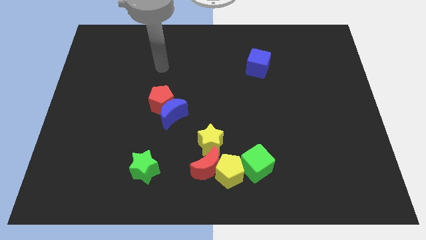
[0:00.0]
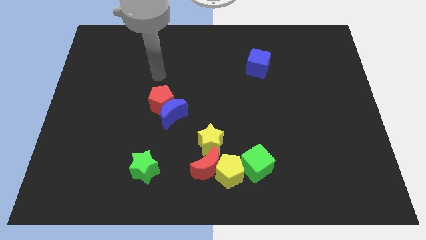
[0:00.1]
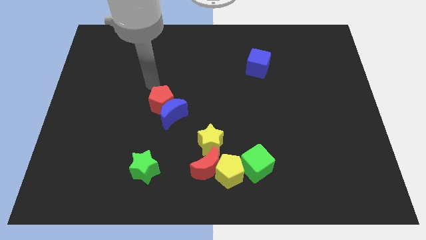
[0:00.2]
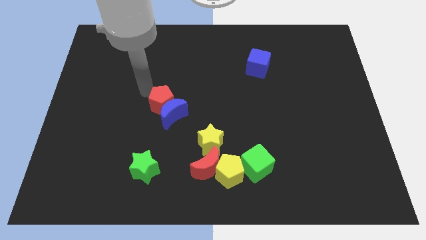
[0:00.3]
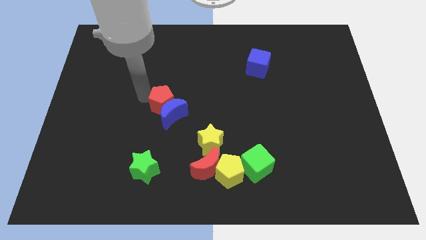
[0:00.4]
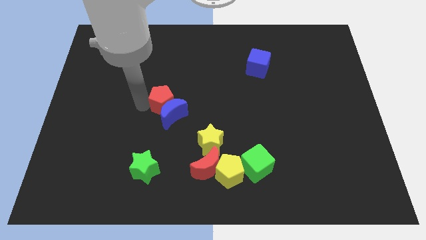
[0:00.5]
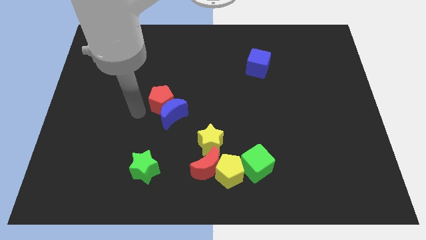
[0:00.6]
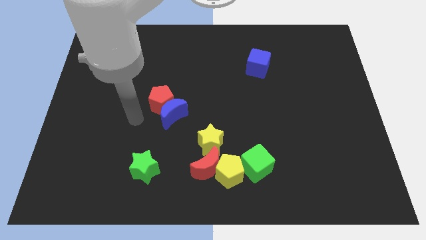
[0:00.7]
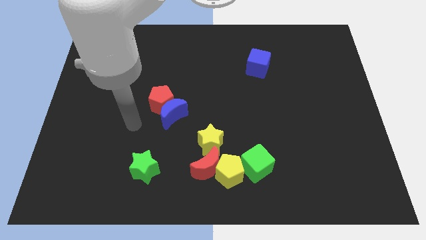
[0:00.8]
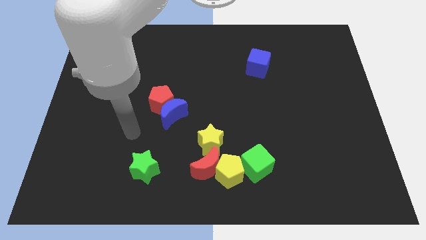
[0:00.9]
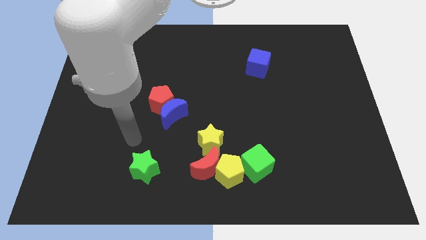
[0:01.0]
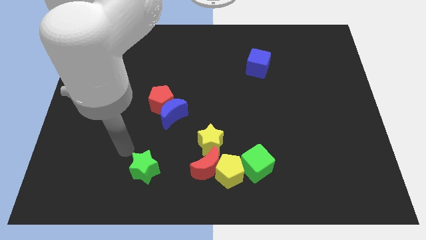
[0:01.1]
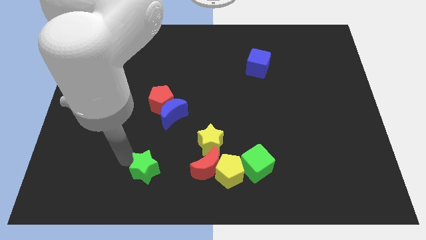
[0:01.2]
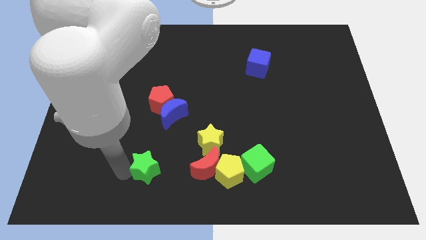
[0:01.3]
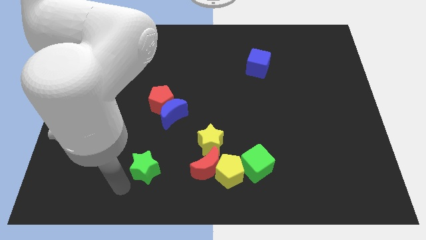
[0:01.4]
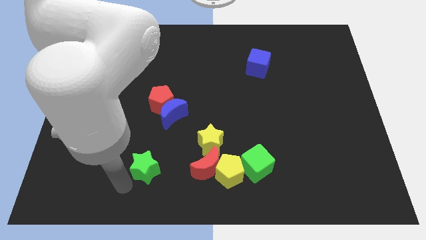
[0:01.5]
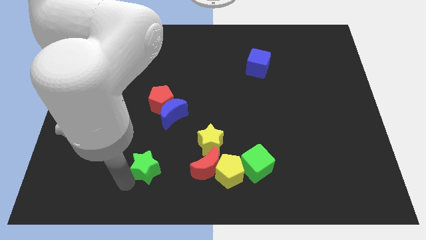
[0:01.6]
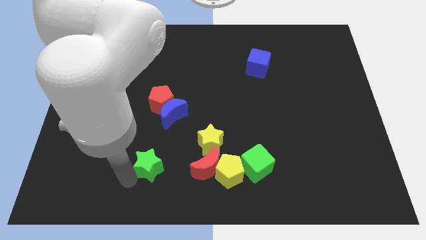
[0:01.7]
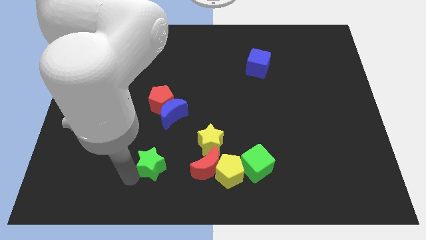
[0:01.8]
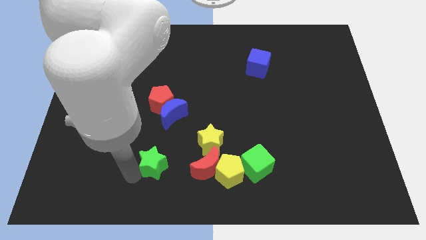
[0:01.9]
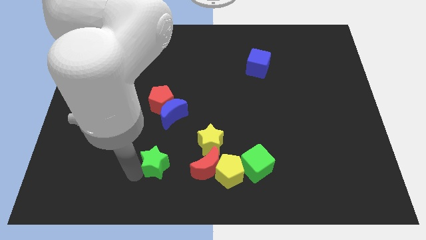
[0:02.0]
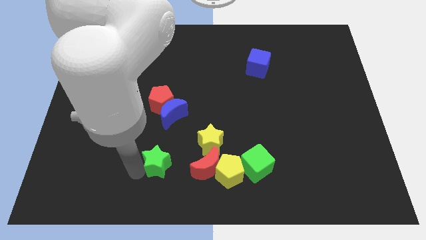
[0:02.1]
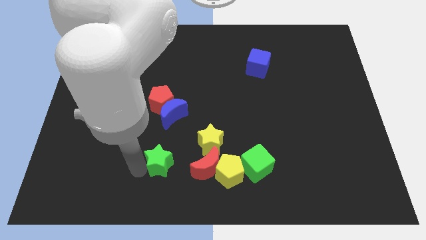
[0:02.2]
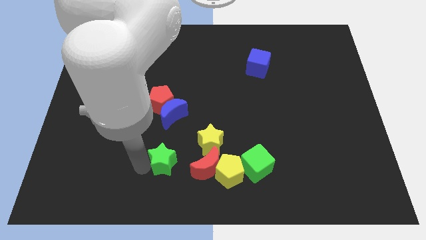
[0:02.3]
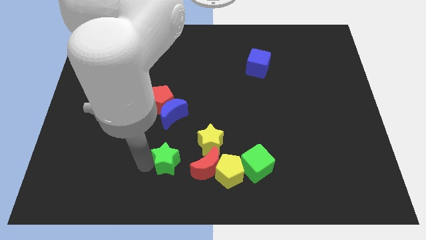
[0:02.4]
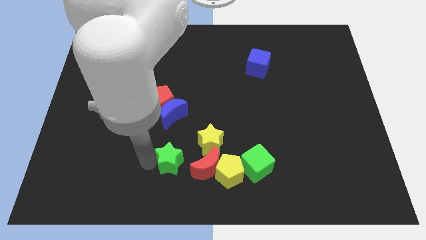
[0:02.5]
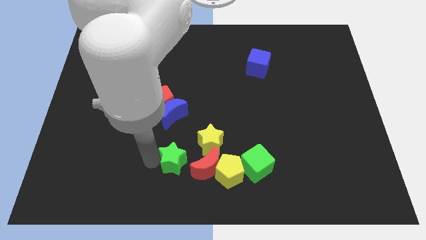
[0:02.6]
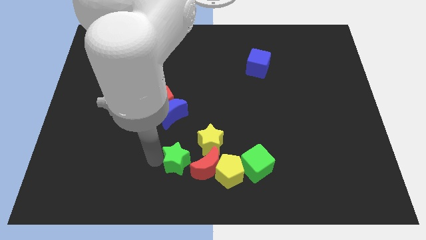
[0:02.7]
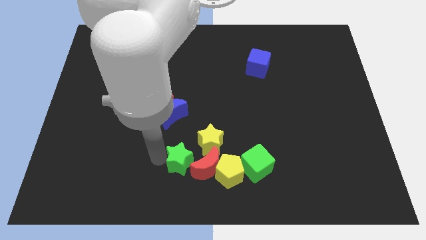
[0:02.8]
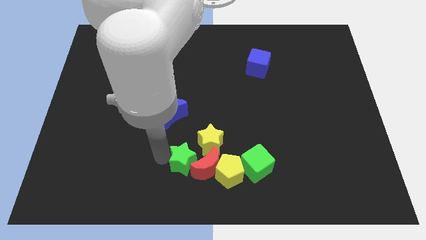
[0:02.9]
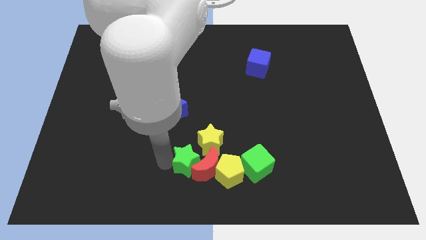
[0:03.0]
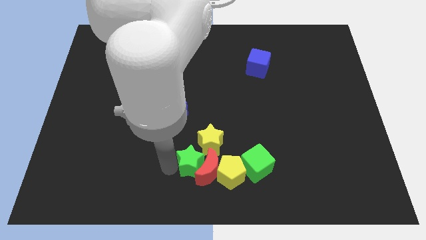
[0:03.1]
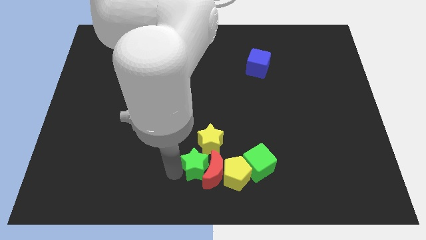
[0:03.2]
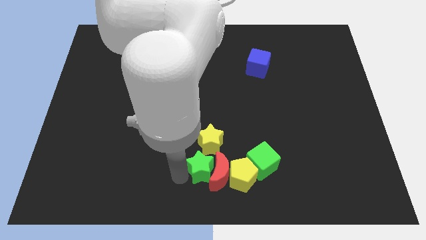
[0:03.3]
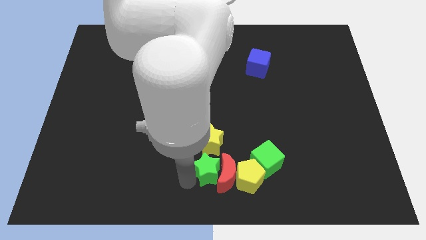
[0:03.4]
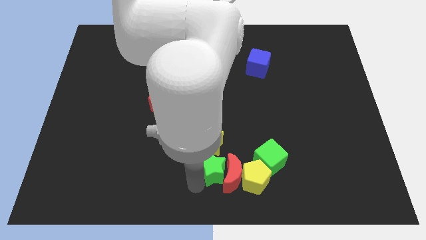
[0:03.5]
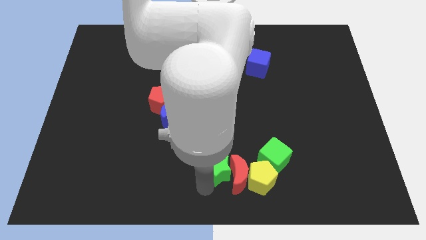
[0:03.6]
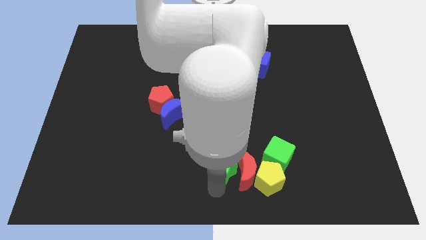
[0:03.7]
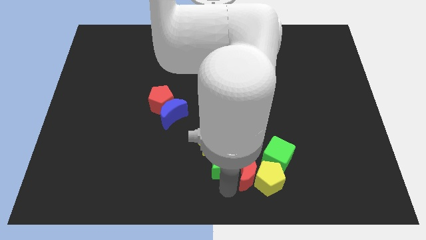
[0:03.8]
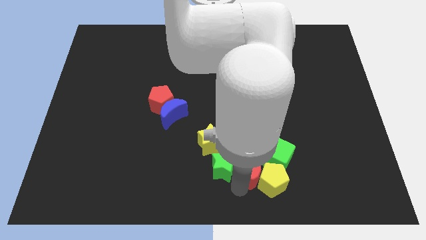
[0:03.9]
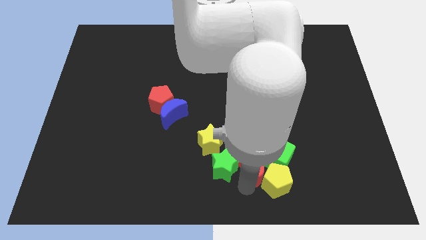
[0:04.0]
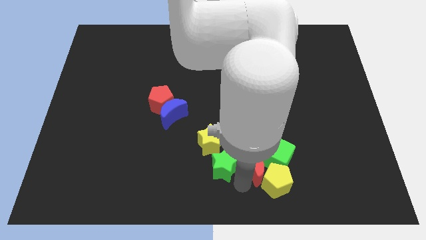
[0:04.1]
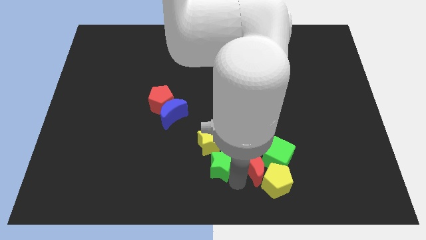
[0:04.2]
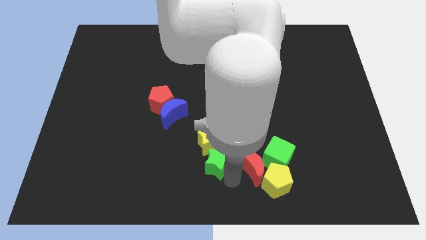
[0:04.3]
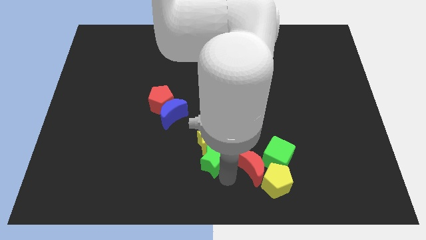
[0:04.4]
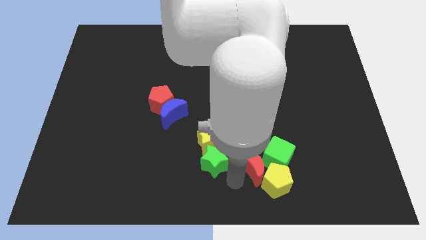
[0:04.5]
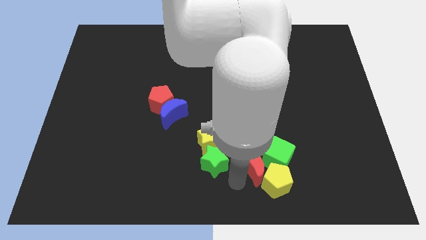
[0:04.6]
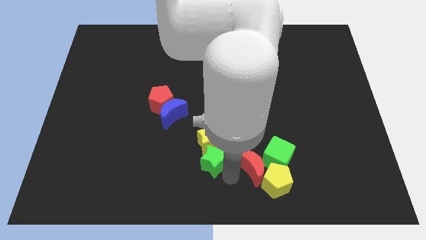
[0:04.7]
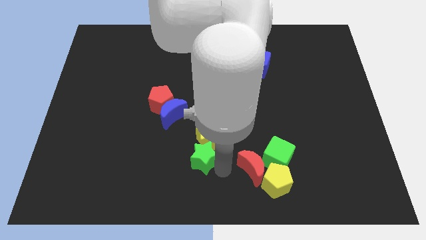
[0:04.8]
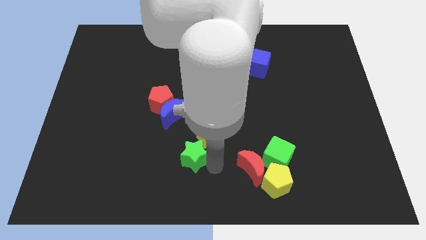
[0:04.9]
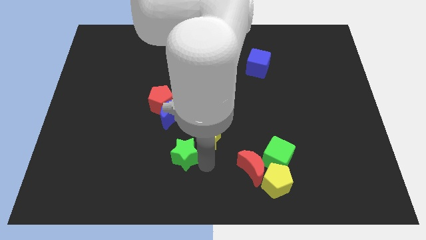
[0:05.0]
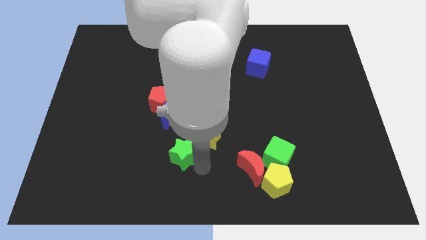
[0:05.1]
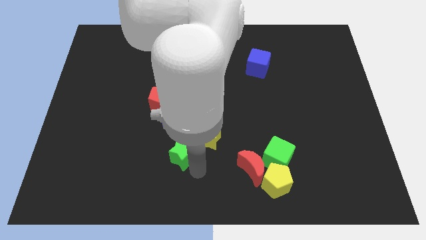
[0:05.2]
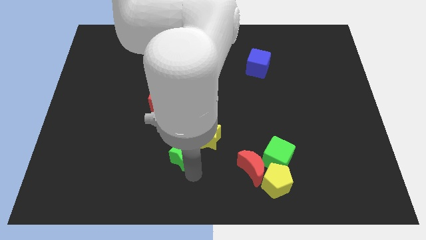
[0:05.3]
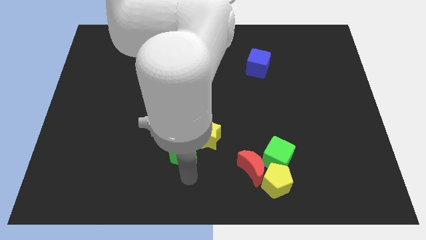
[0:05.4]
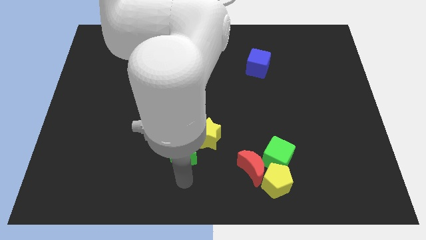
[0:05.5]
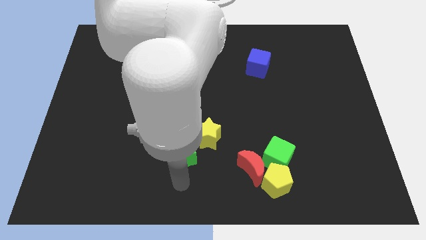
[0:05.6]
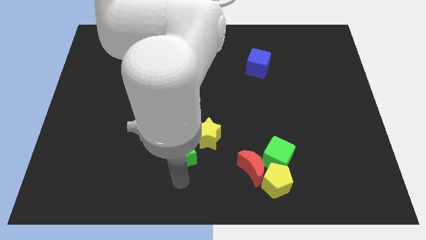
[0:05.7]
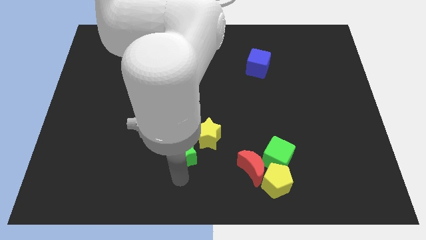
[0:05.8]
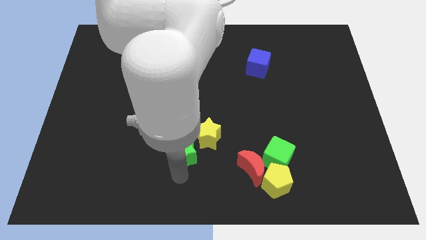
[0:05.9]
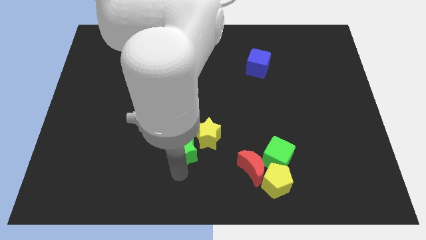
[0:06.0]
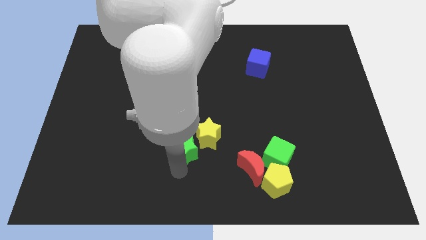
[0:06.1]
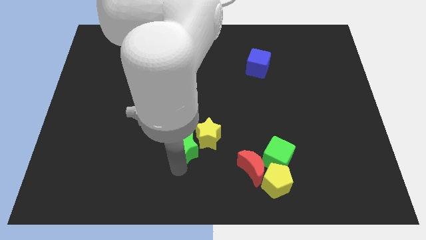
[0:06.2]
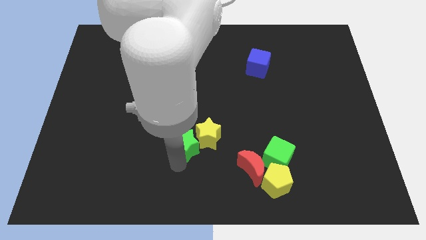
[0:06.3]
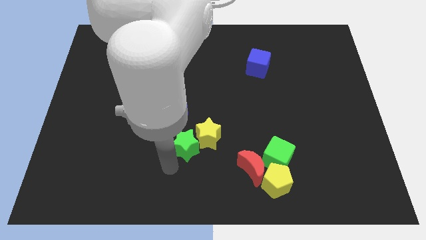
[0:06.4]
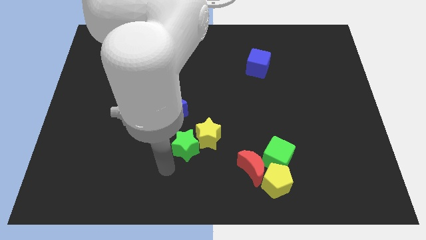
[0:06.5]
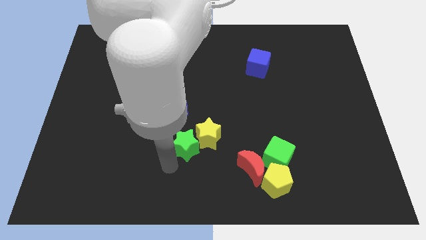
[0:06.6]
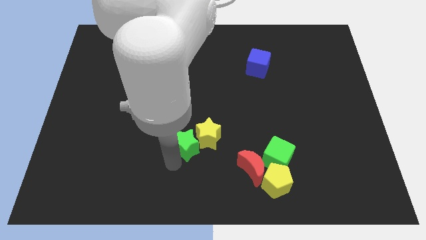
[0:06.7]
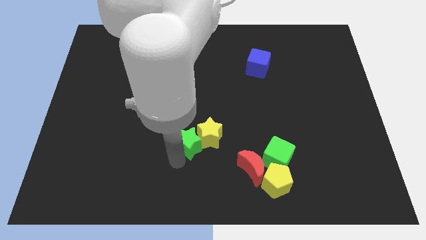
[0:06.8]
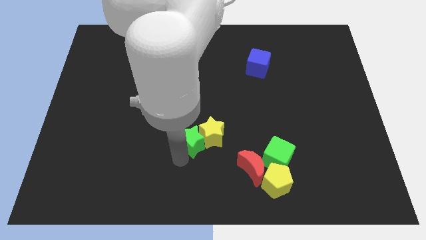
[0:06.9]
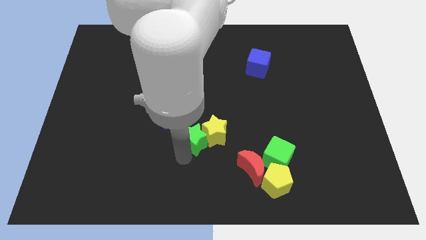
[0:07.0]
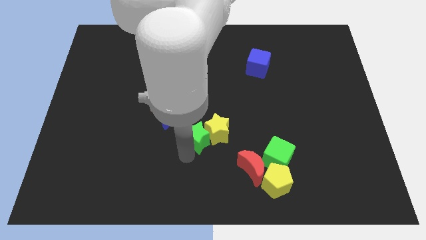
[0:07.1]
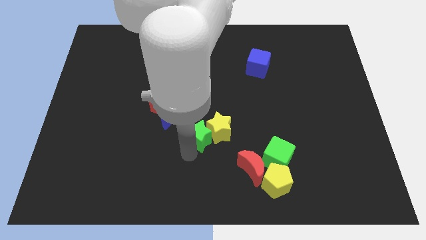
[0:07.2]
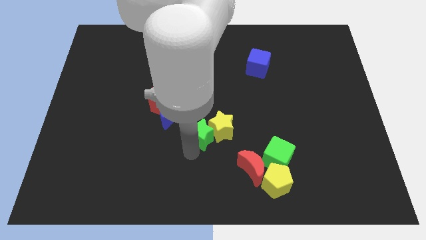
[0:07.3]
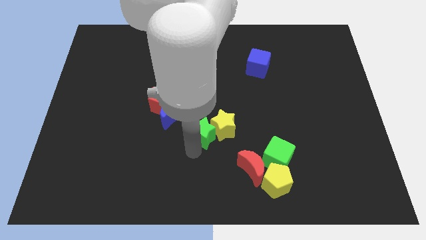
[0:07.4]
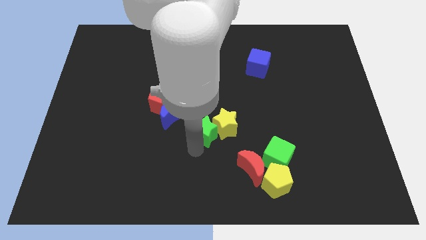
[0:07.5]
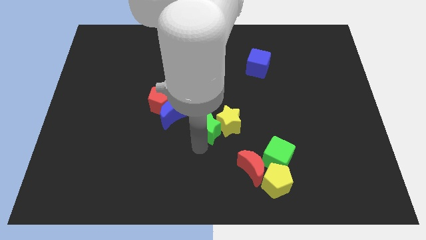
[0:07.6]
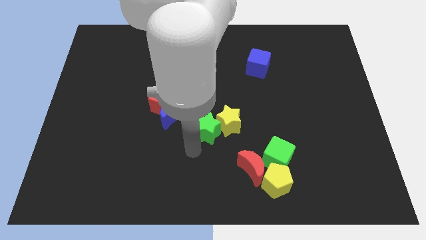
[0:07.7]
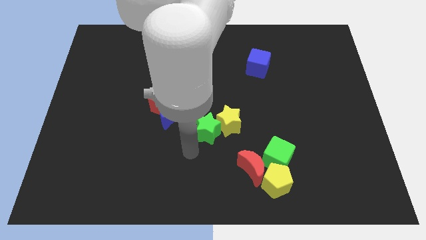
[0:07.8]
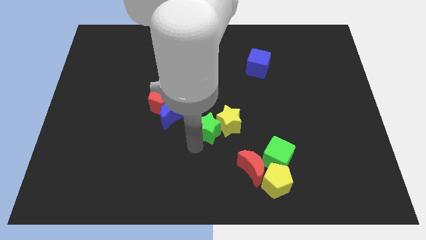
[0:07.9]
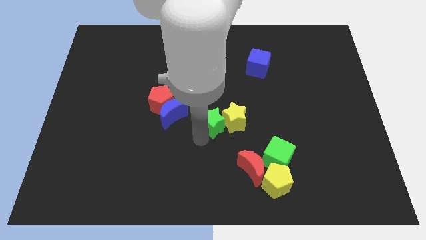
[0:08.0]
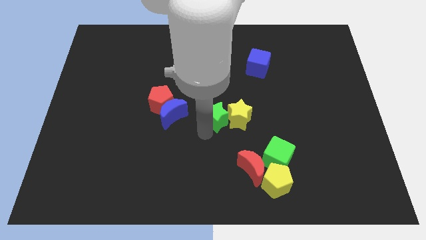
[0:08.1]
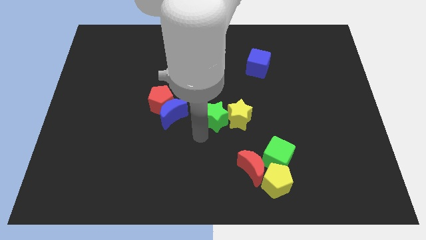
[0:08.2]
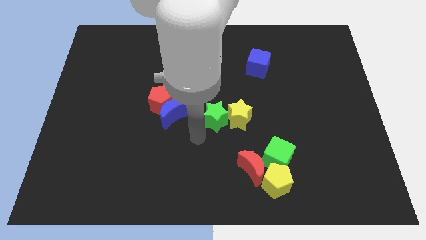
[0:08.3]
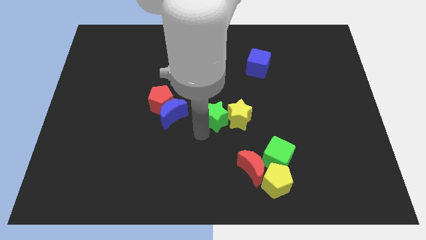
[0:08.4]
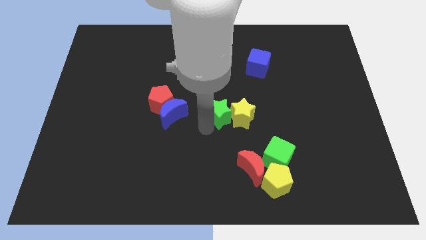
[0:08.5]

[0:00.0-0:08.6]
slide the green star diagonally upwards and right
